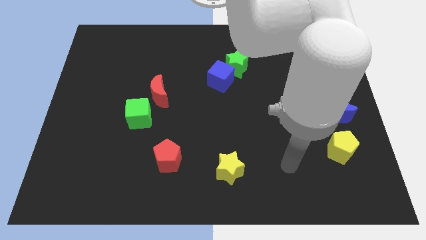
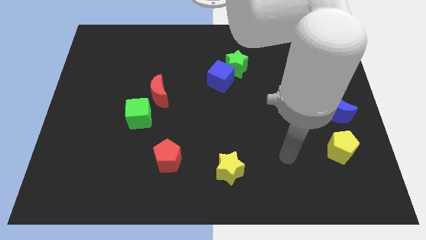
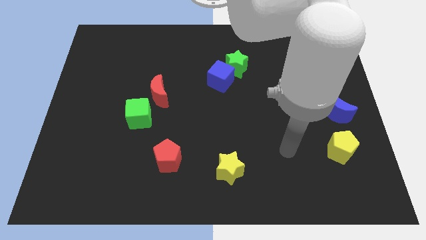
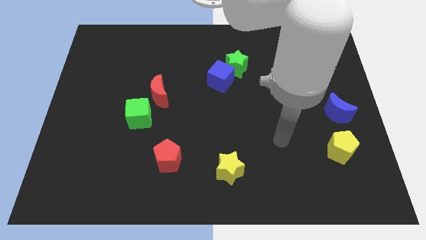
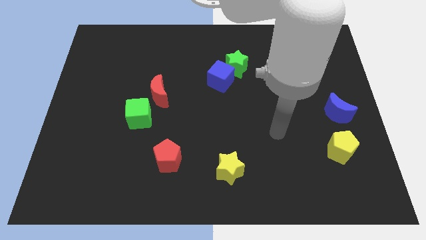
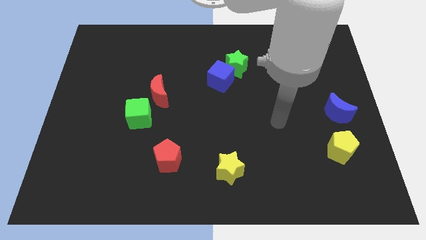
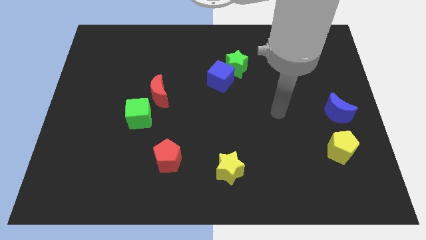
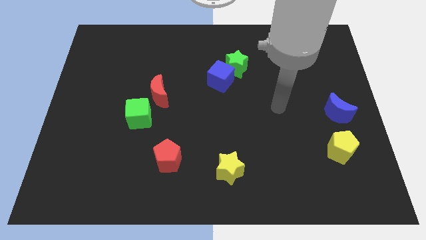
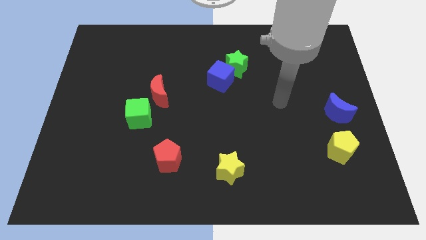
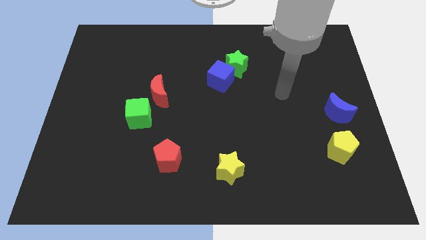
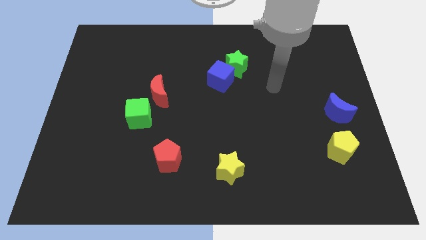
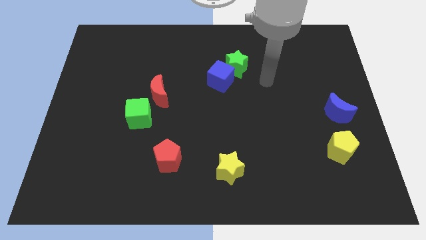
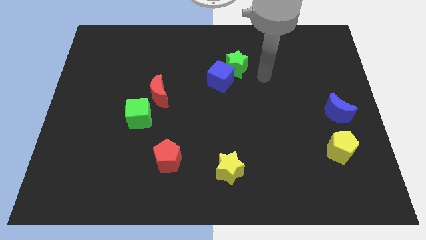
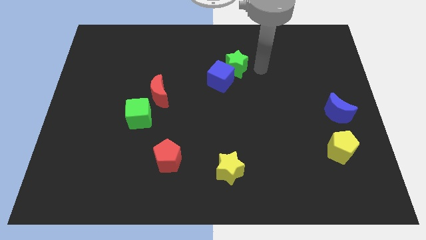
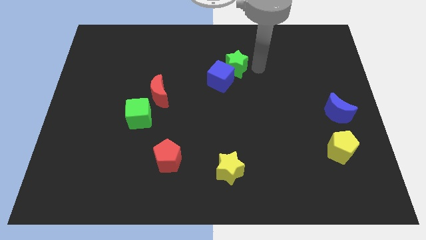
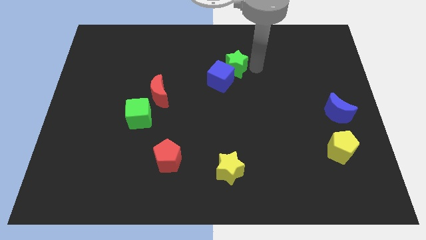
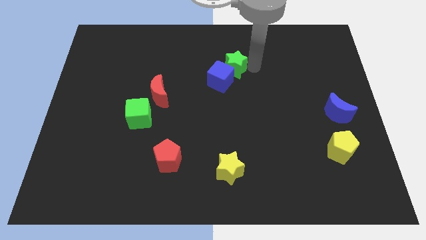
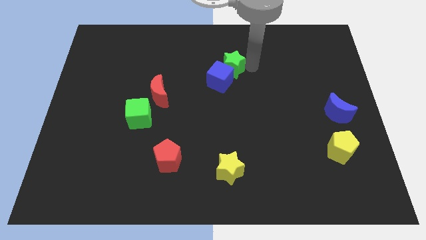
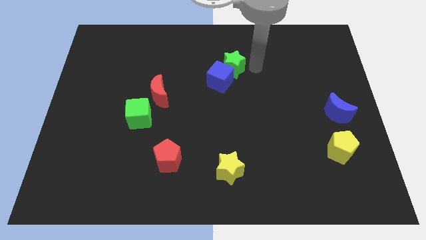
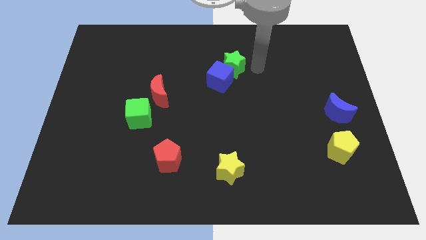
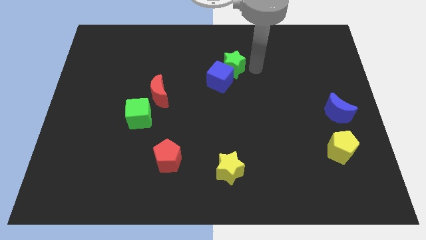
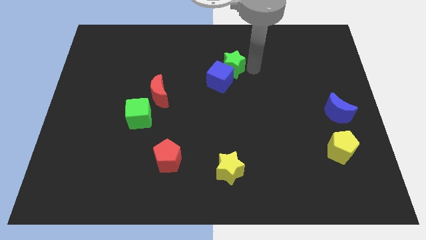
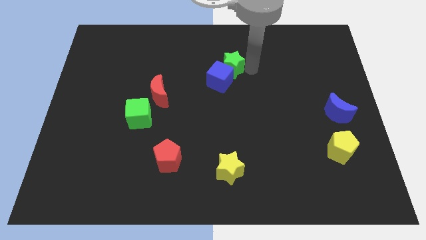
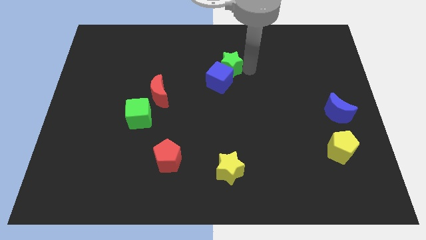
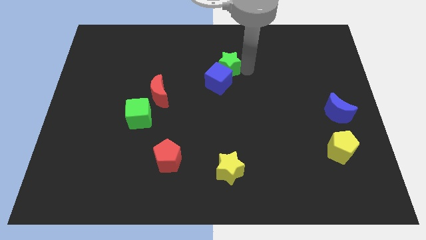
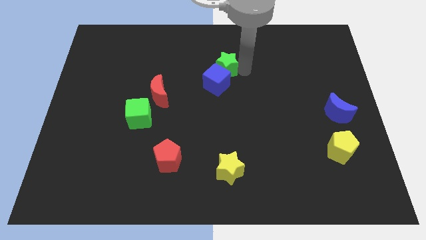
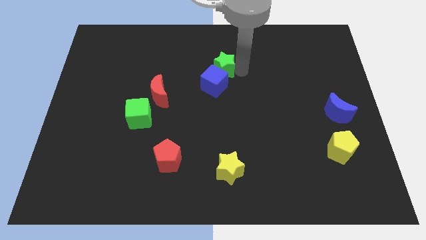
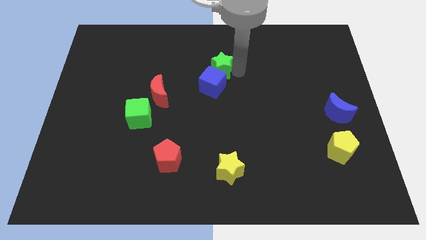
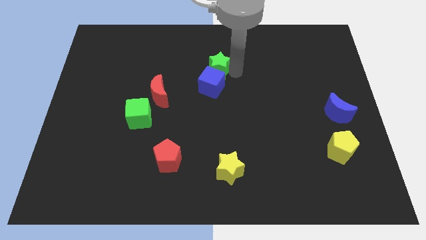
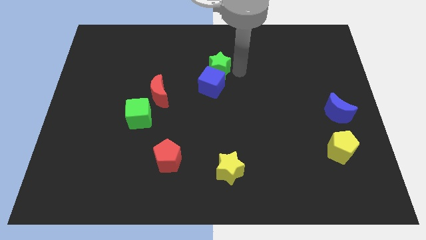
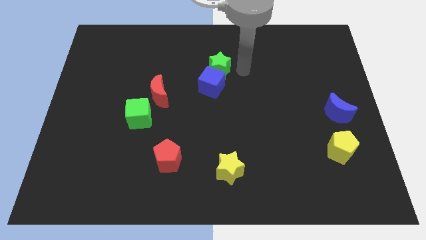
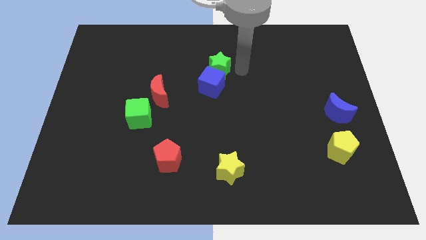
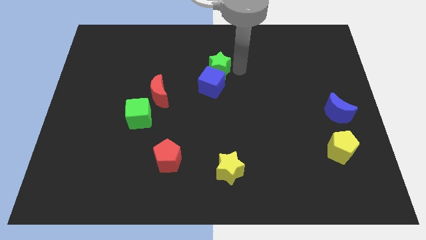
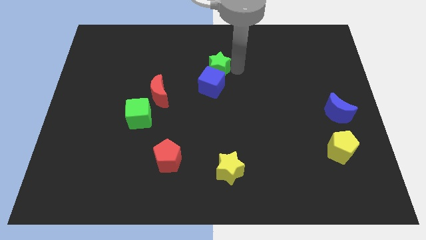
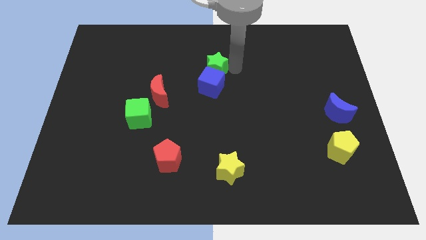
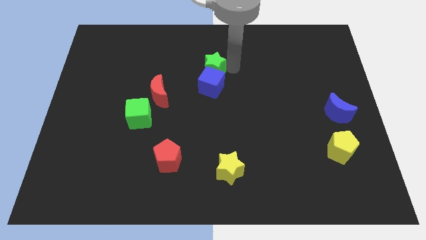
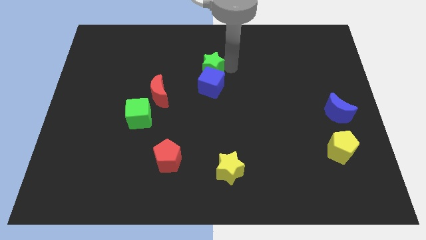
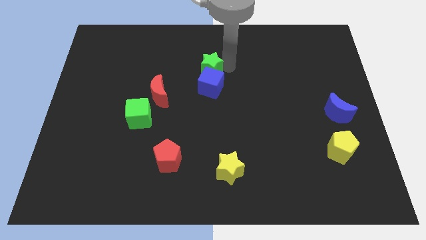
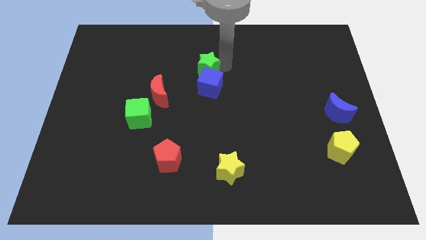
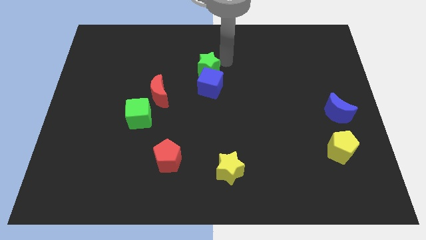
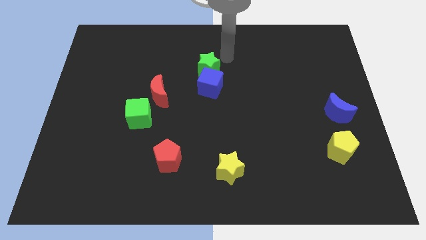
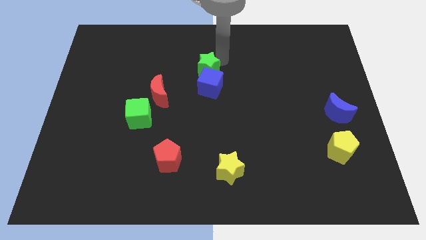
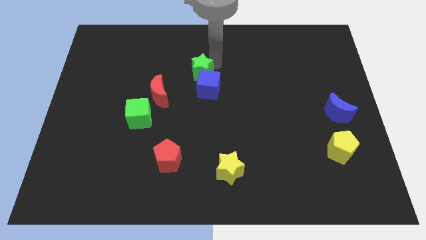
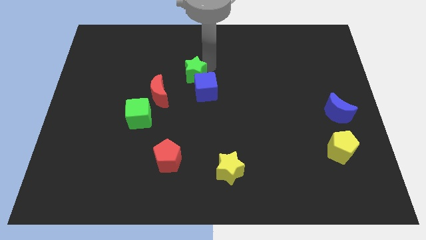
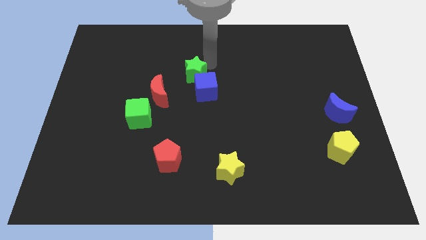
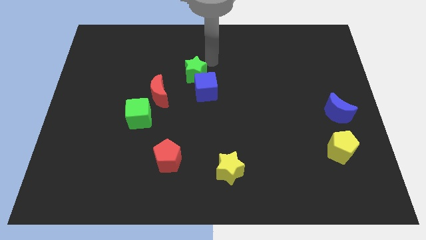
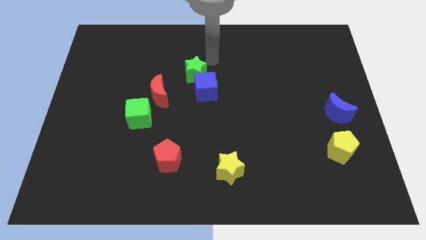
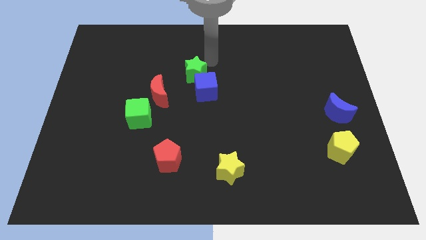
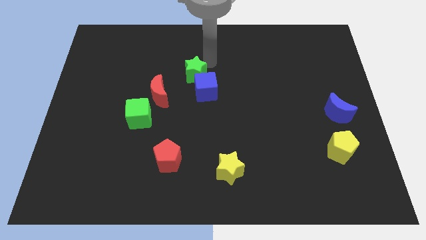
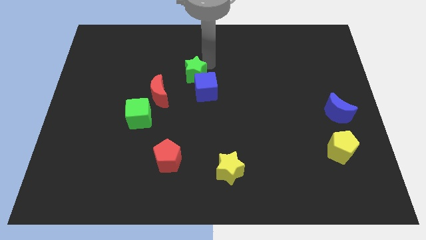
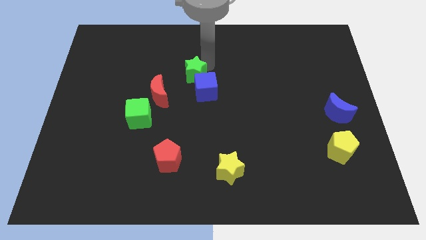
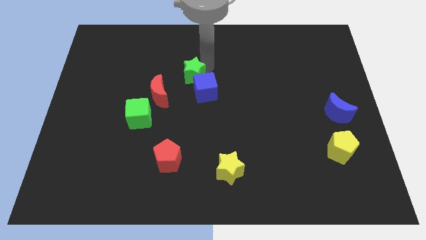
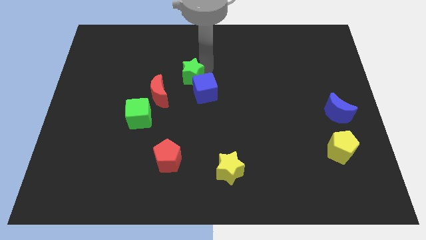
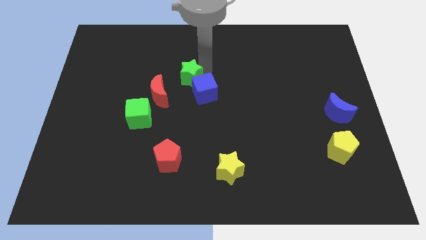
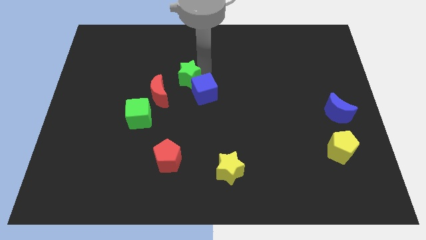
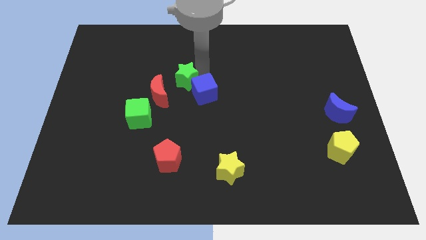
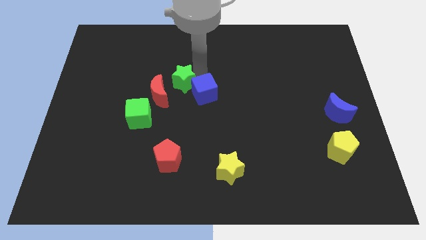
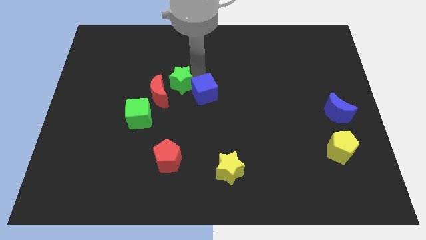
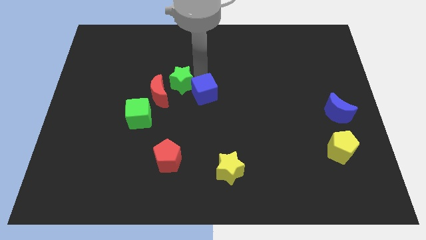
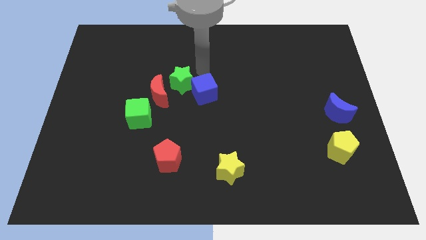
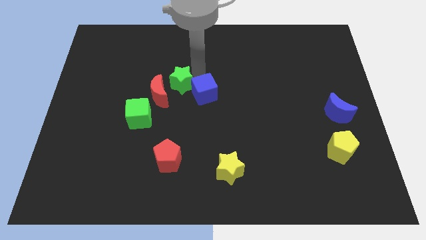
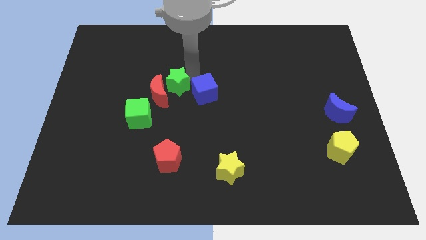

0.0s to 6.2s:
put the green star towards the red moon

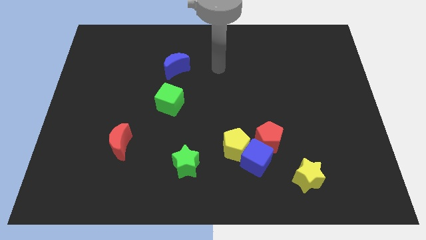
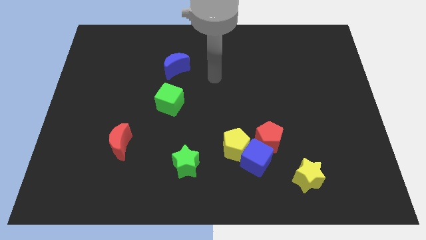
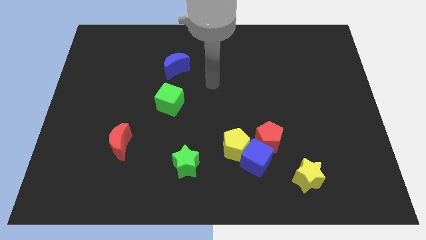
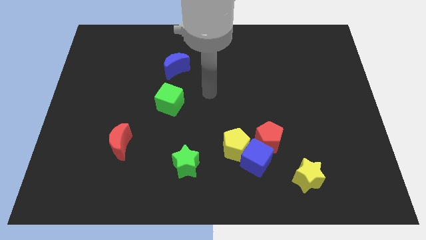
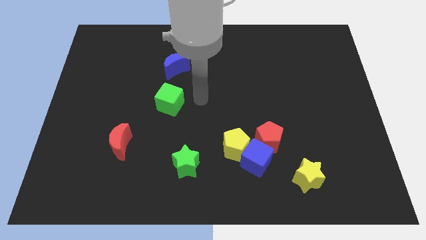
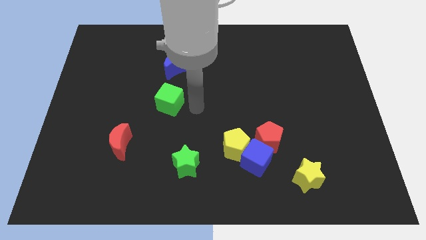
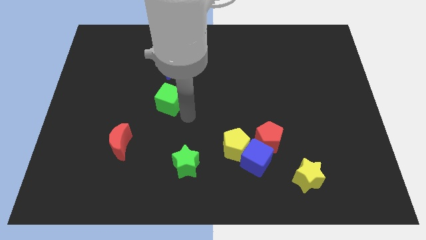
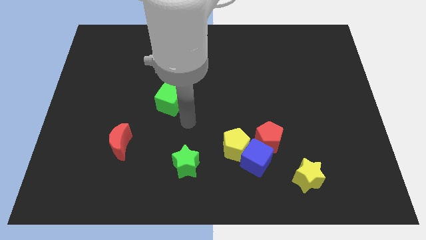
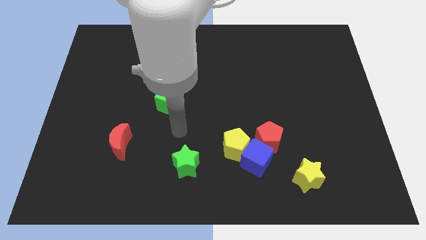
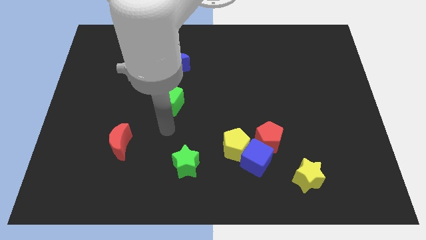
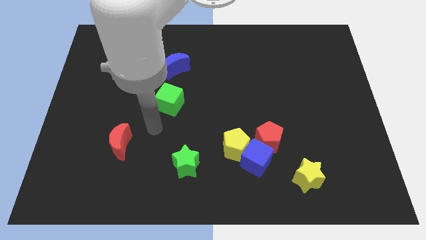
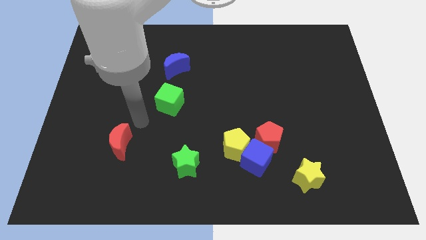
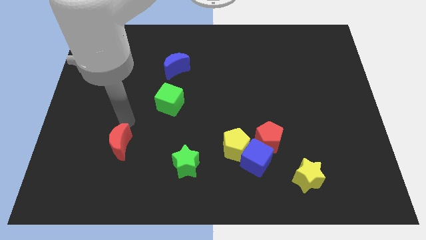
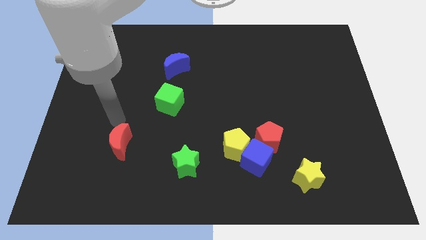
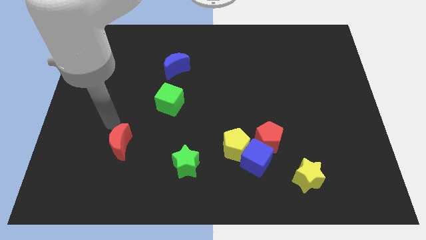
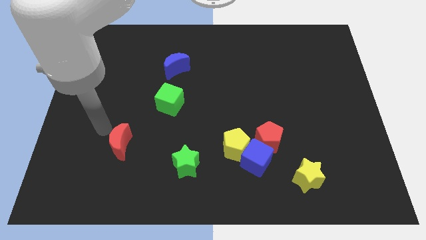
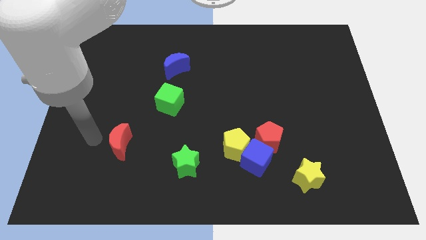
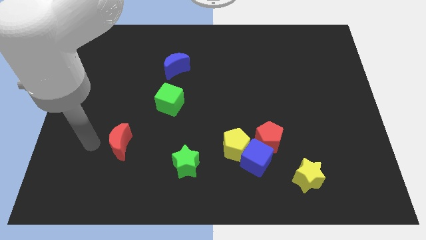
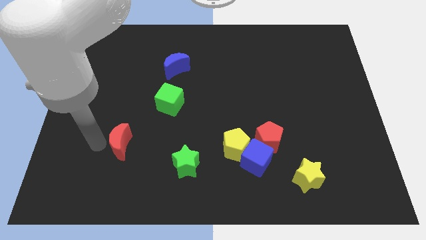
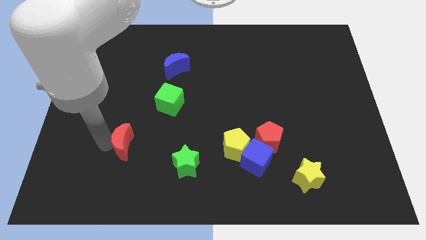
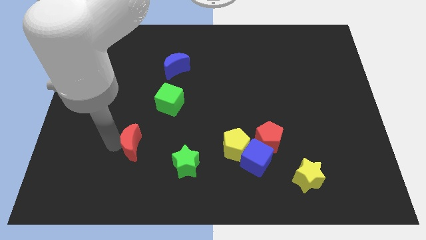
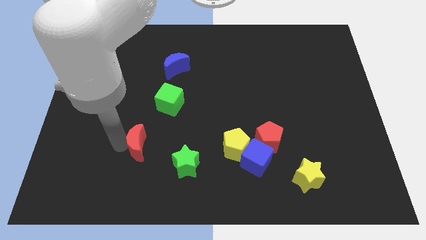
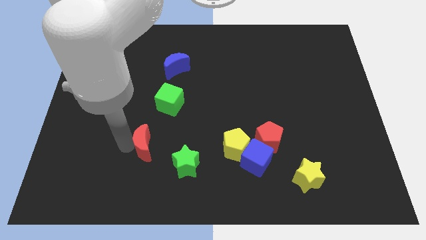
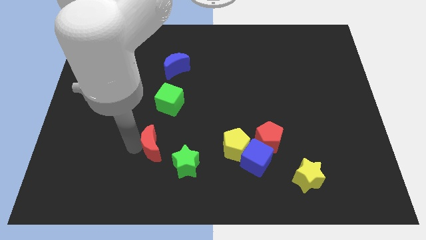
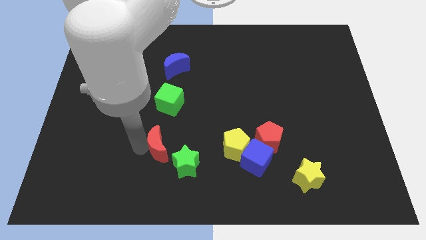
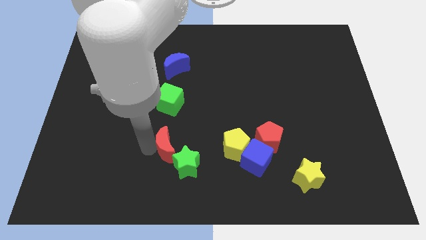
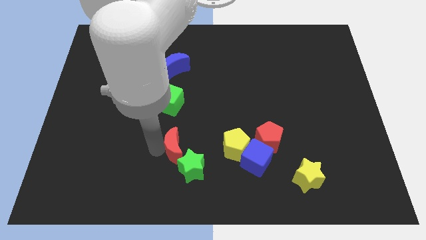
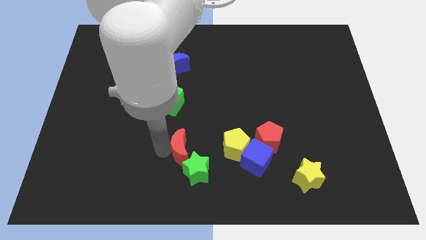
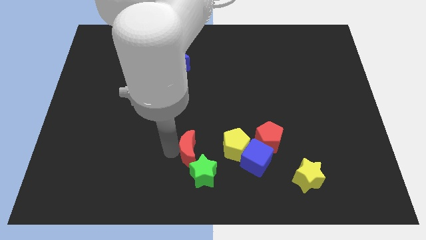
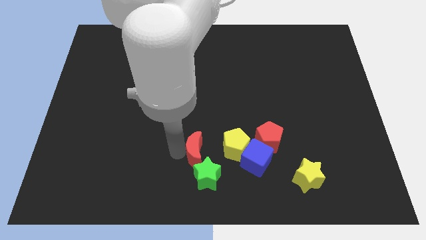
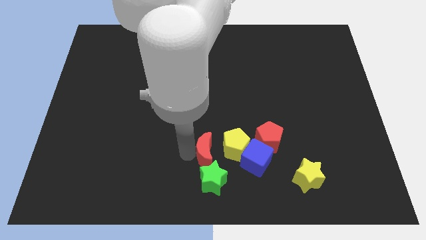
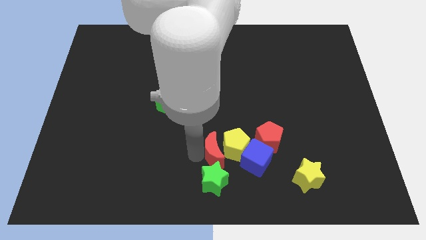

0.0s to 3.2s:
push the red moon to the yellow pentagon
